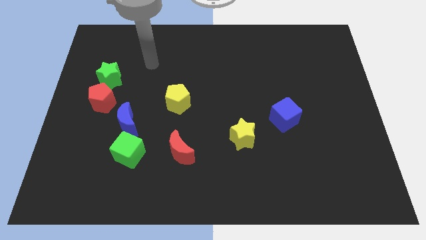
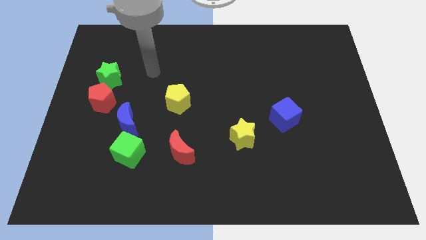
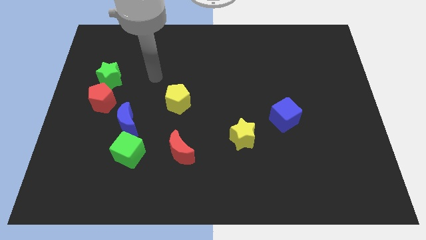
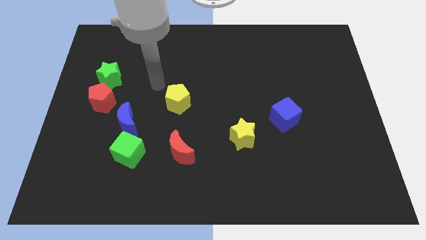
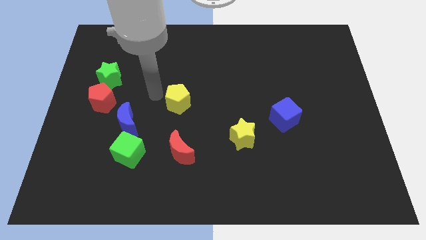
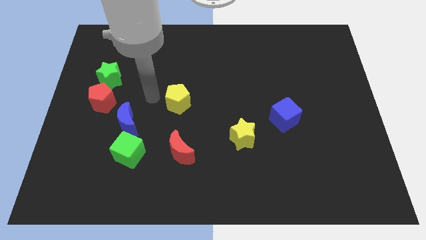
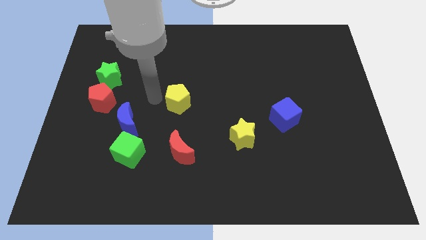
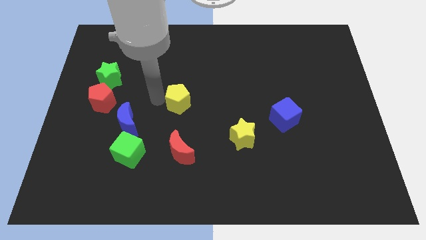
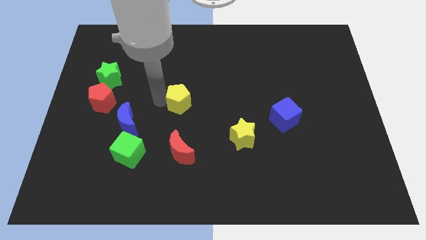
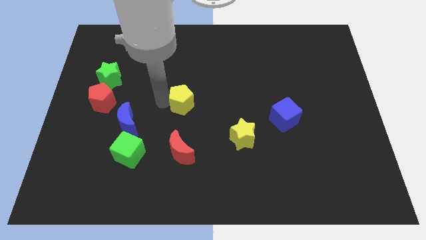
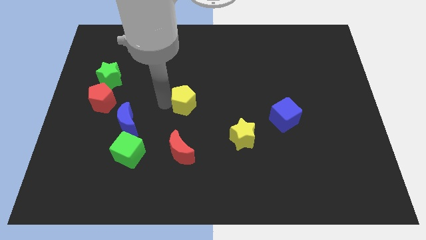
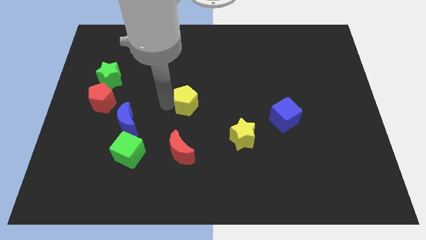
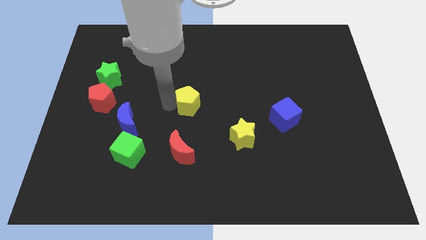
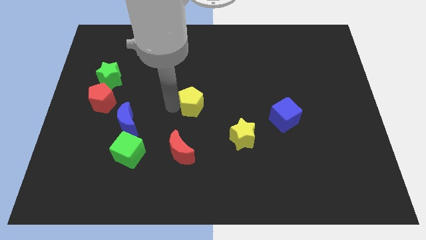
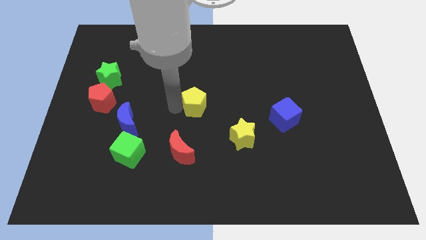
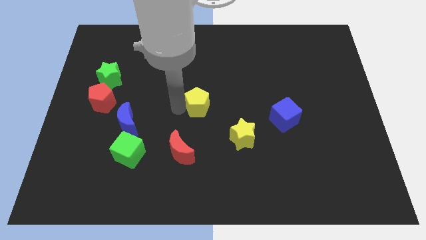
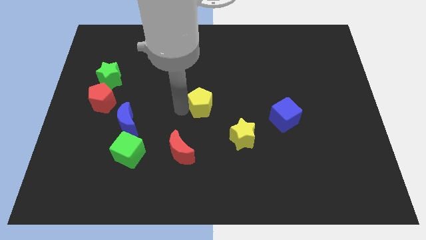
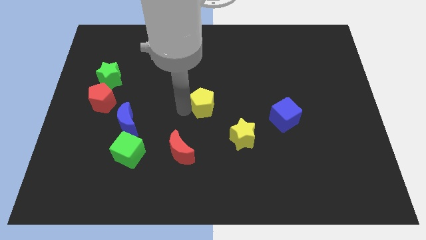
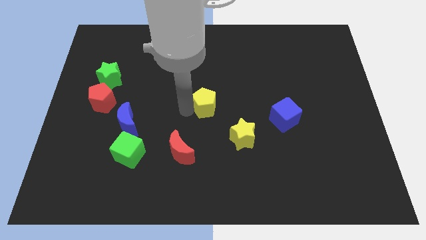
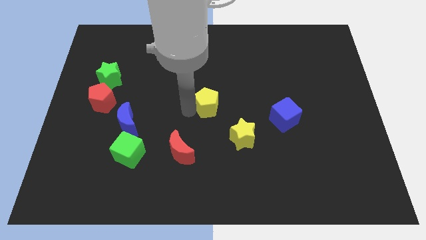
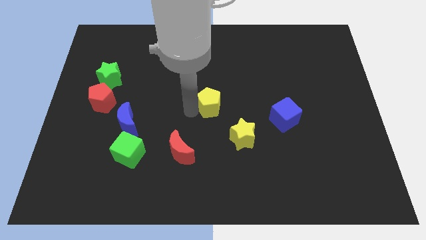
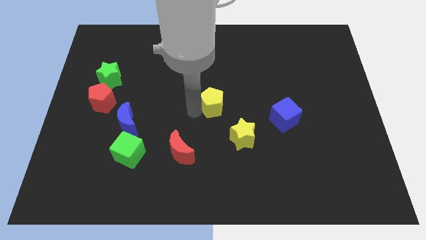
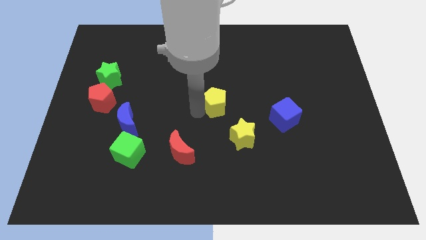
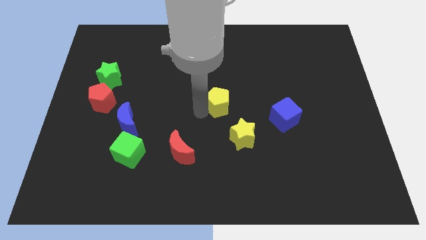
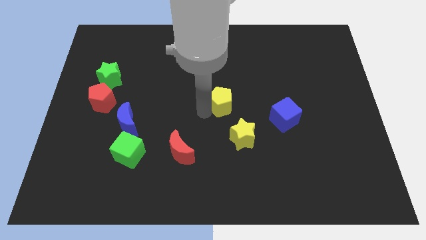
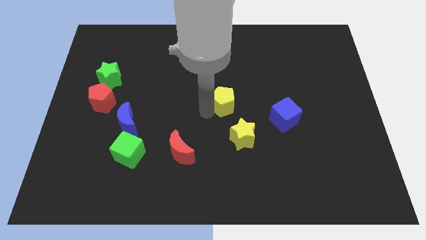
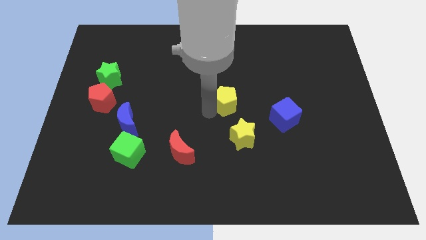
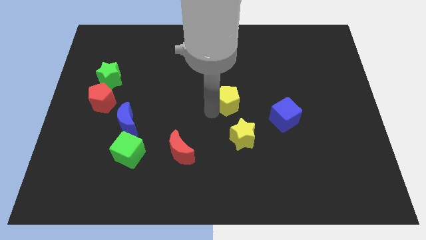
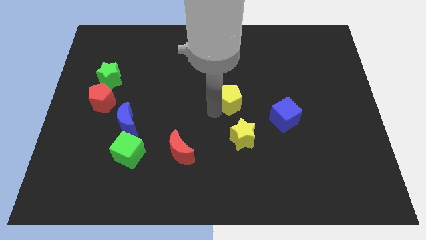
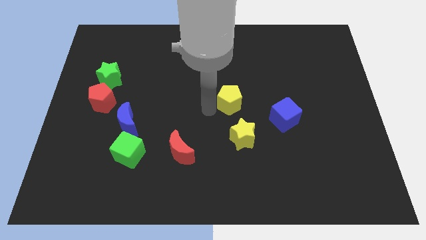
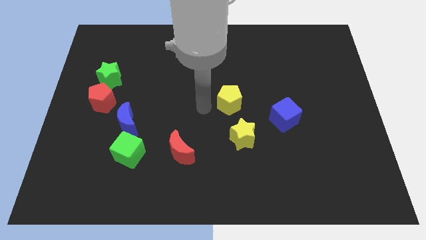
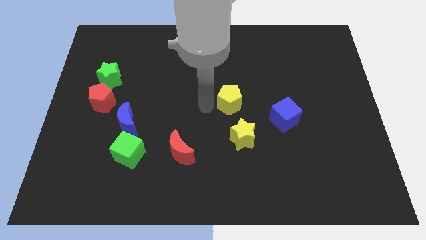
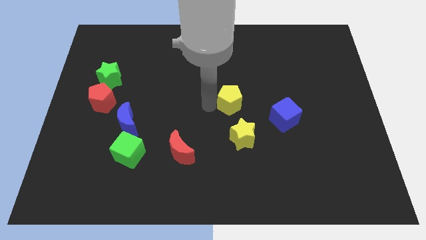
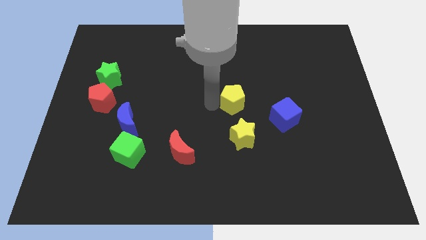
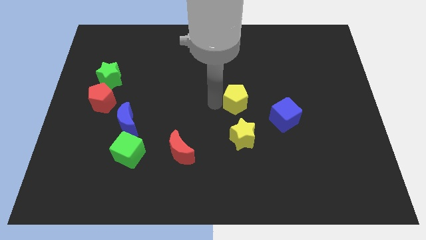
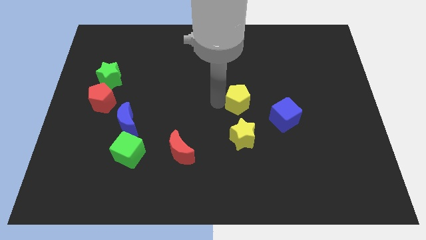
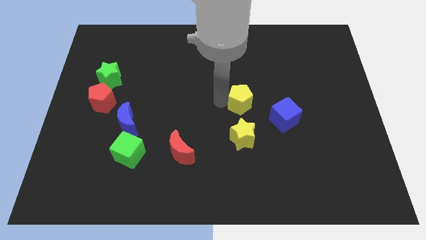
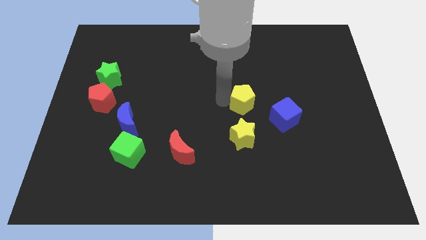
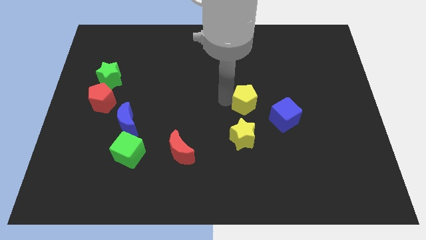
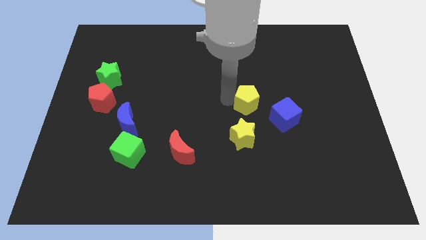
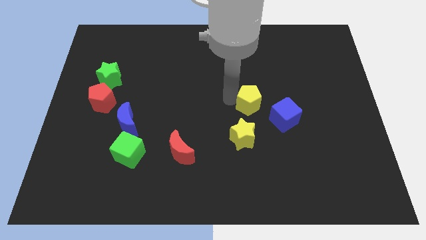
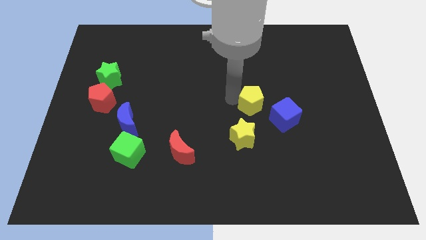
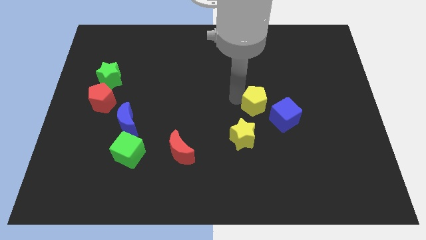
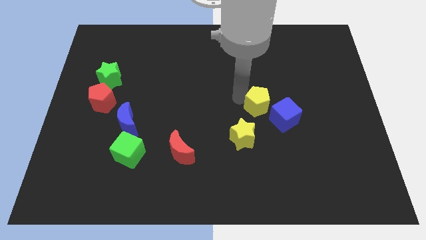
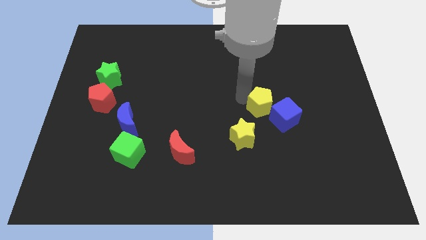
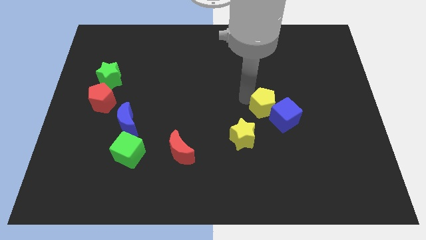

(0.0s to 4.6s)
push the yellow pentagon to the right

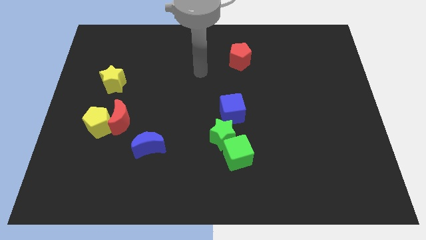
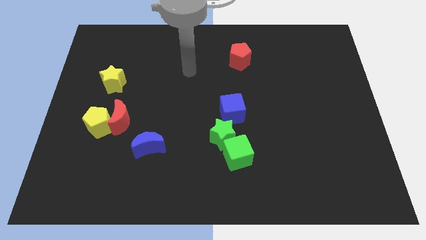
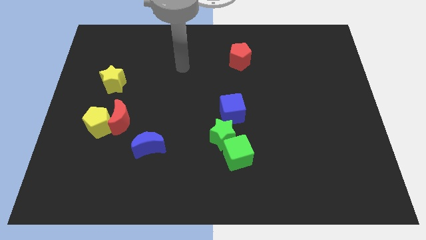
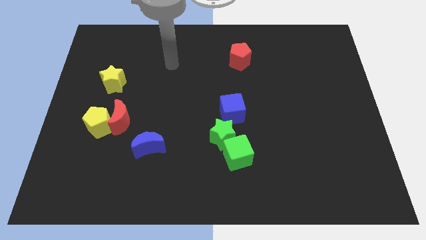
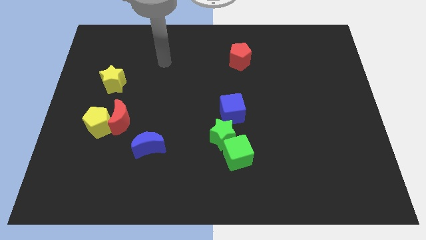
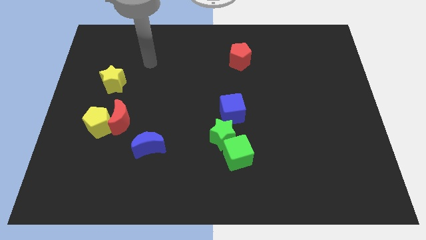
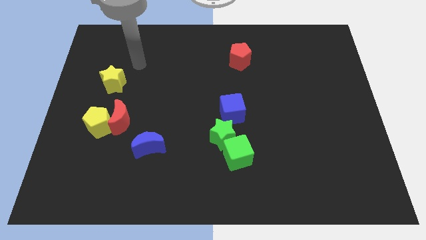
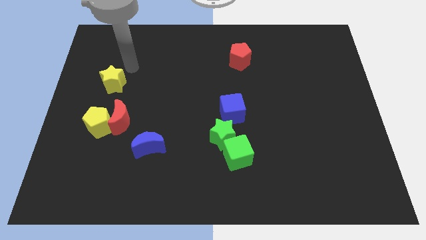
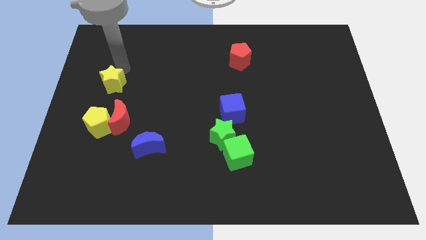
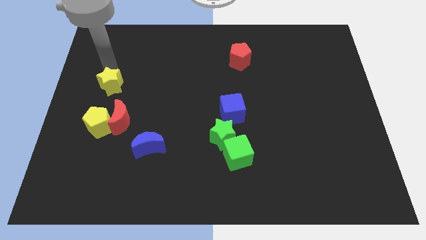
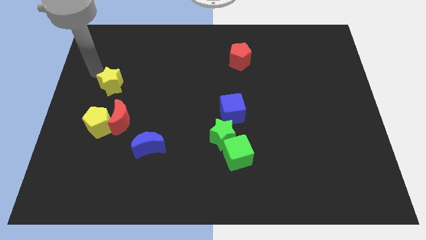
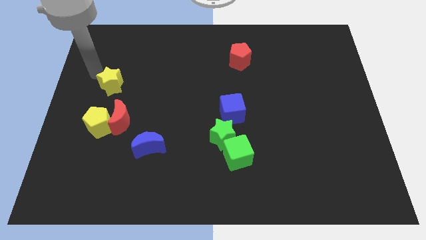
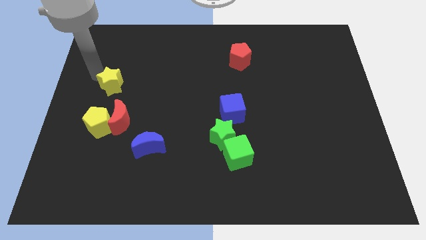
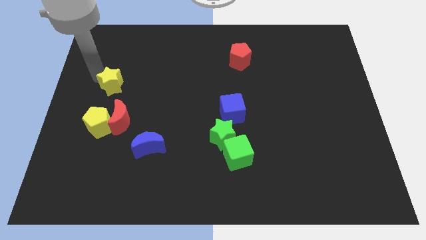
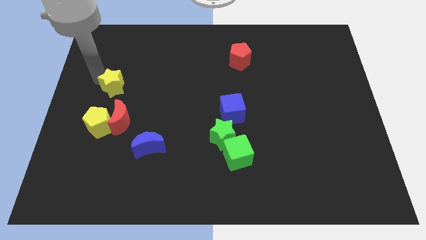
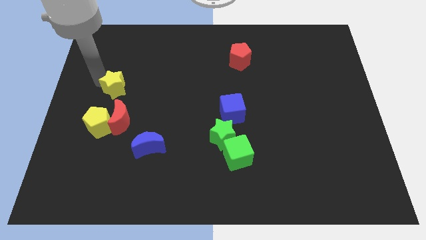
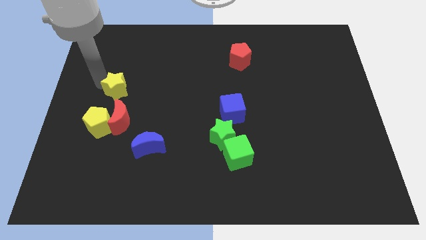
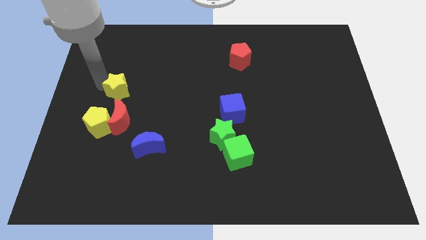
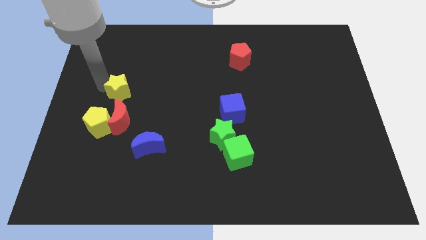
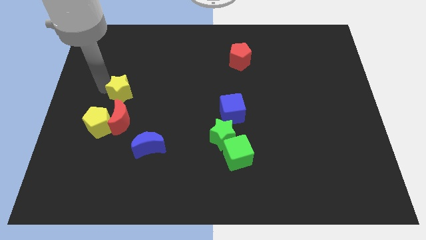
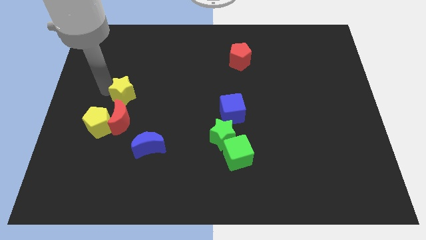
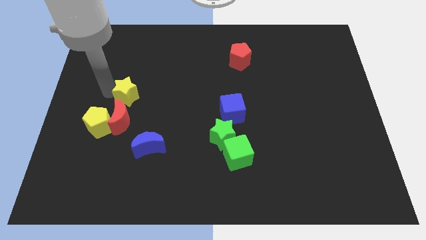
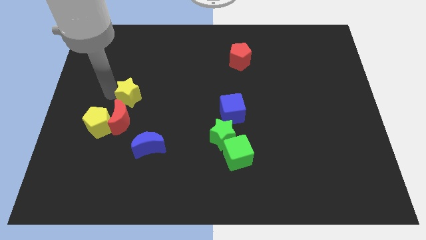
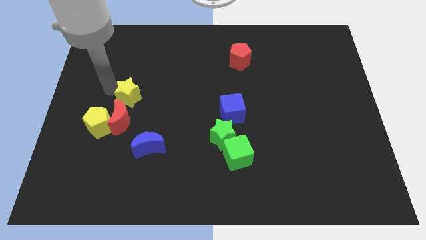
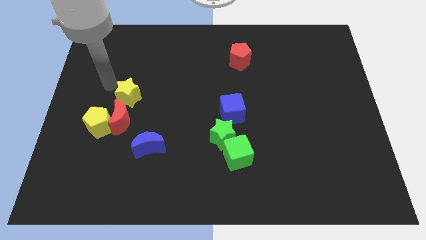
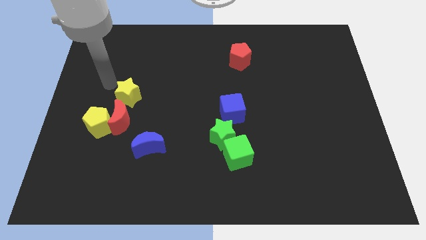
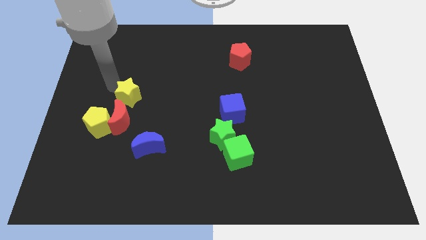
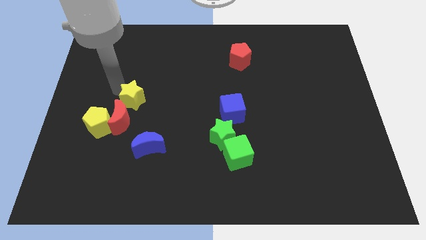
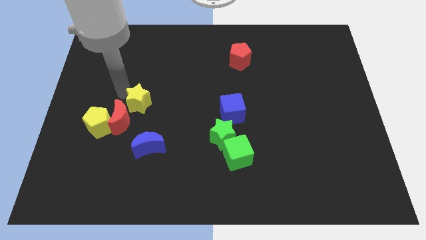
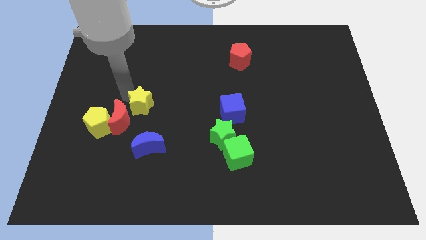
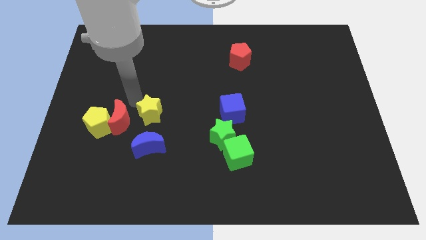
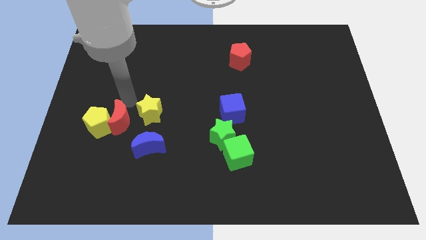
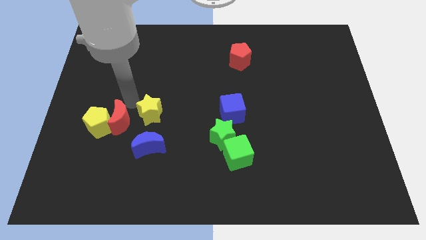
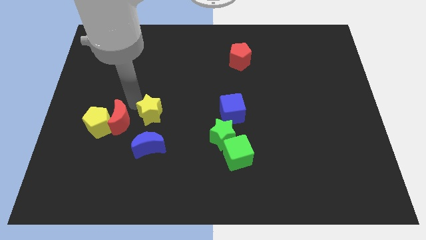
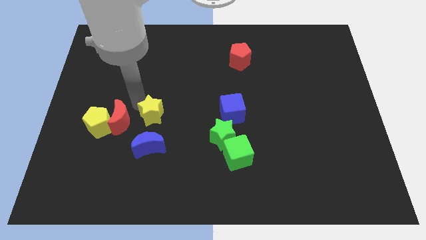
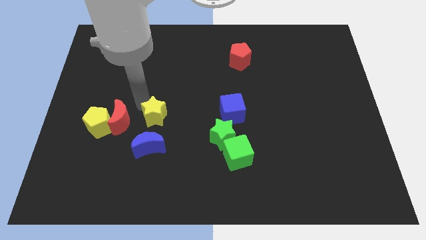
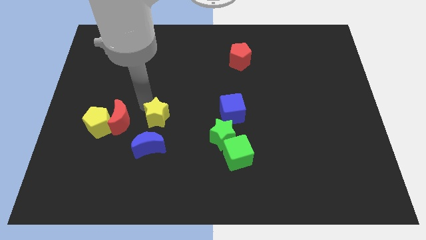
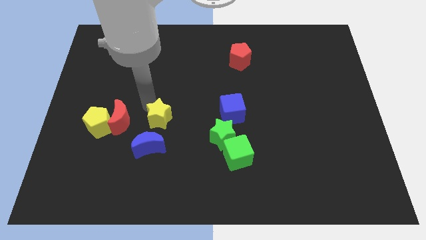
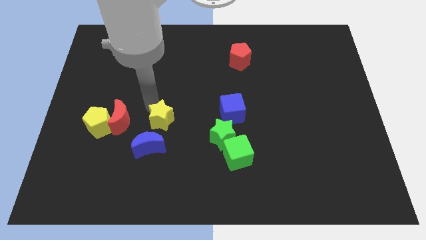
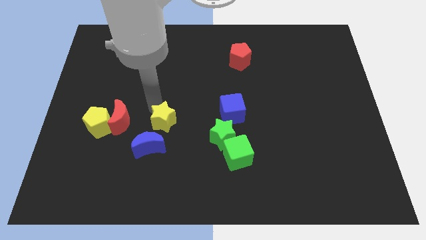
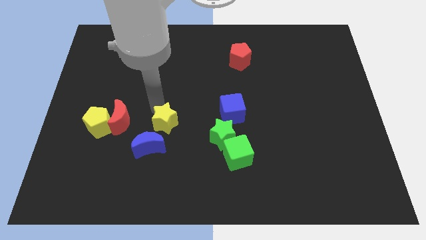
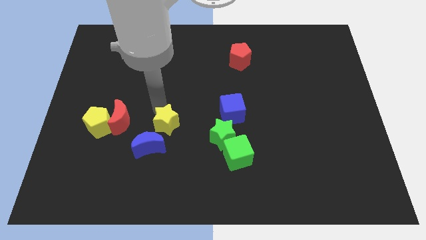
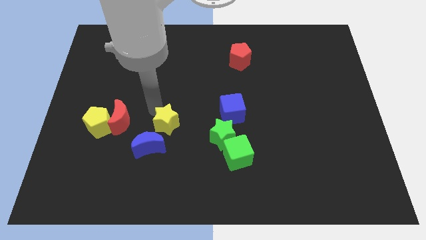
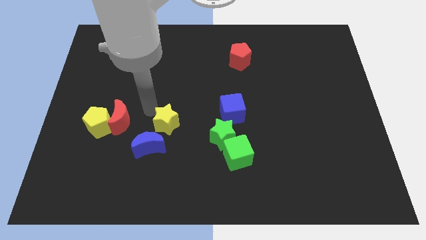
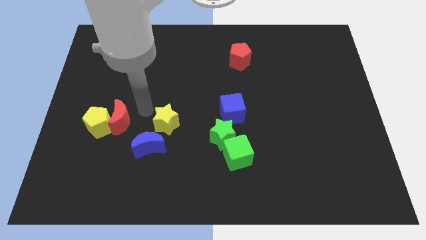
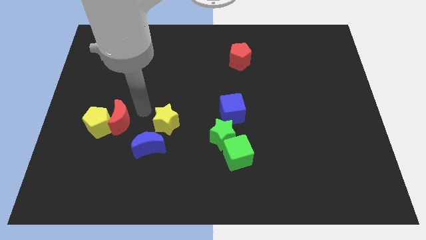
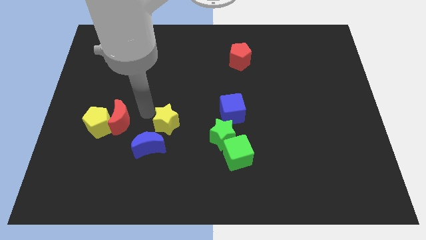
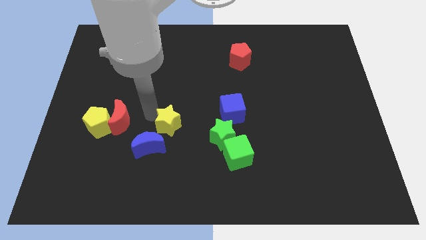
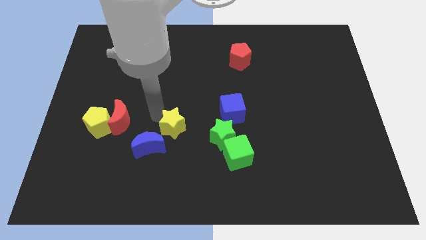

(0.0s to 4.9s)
push the yellow star diagonally downwards and right
